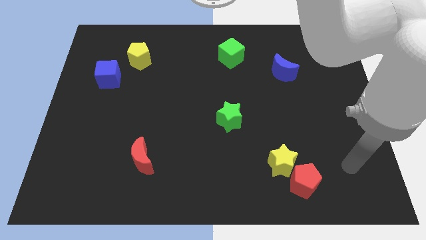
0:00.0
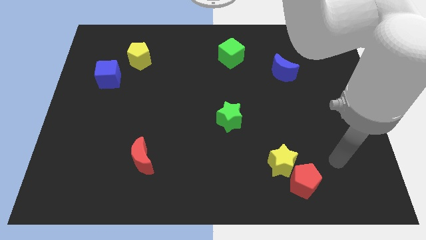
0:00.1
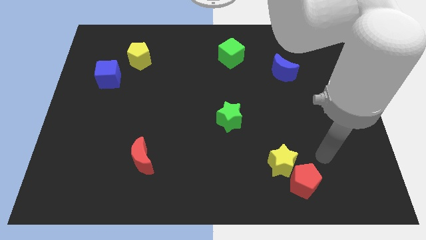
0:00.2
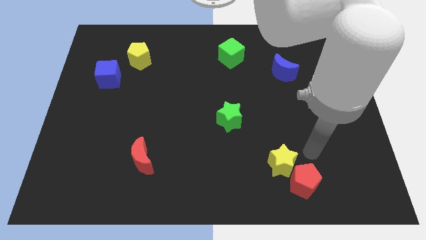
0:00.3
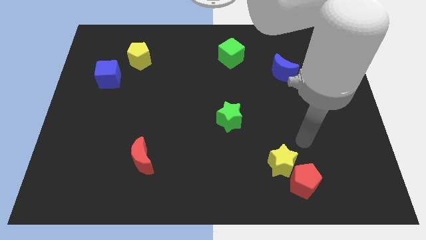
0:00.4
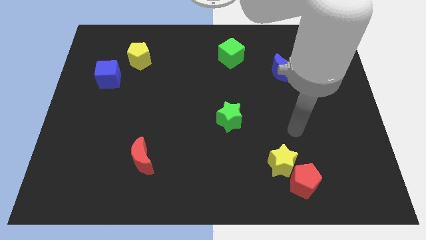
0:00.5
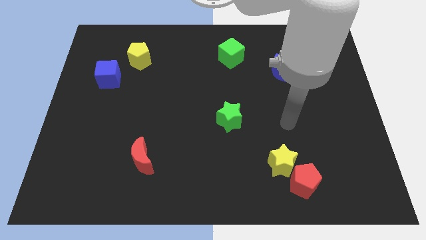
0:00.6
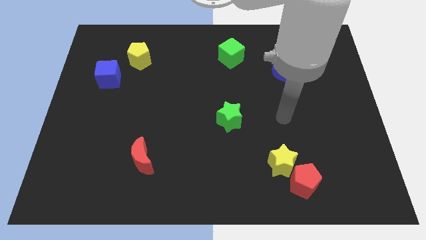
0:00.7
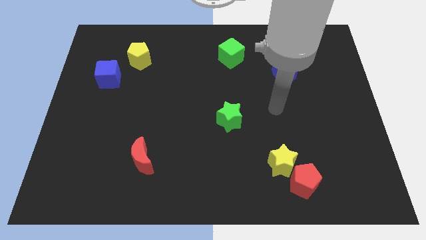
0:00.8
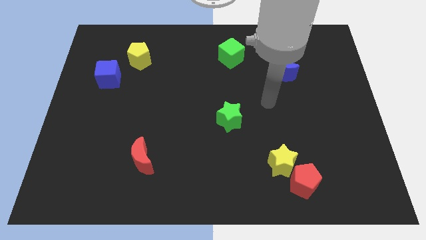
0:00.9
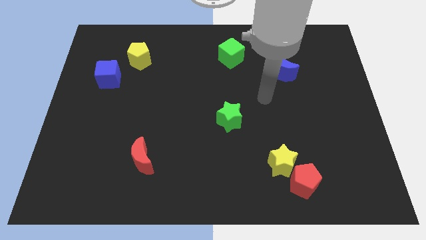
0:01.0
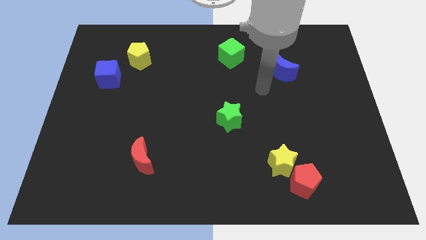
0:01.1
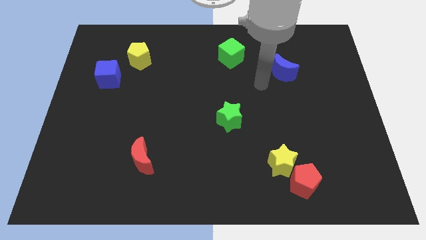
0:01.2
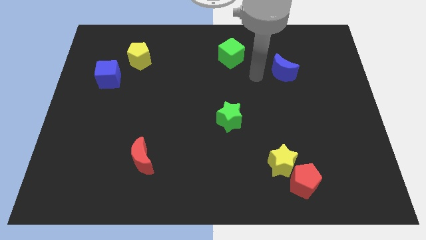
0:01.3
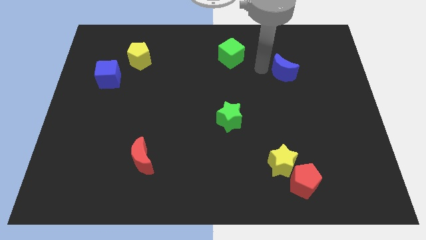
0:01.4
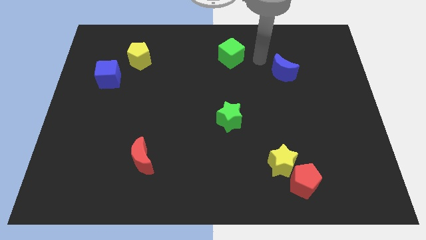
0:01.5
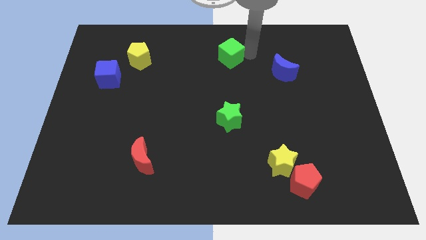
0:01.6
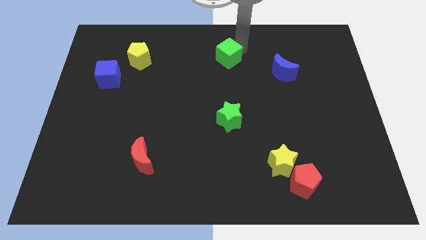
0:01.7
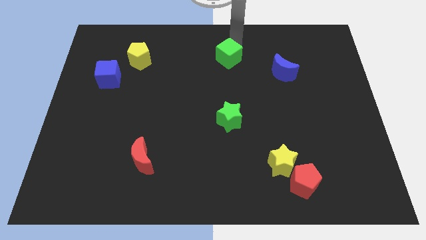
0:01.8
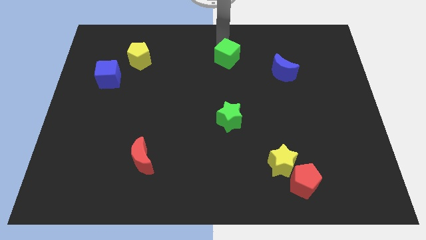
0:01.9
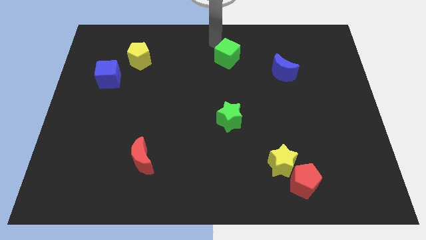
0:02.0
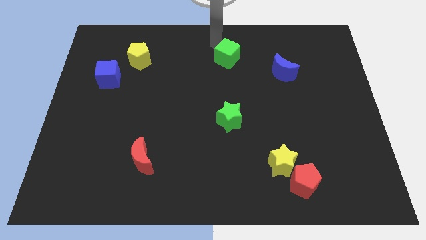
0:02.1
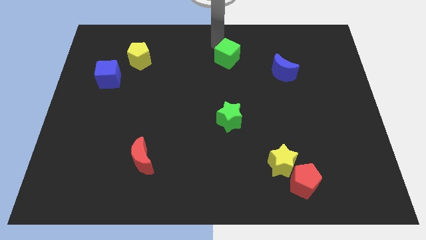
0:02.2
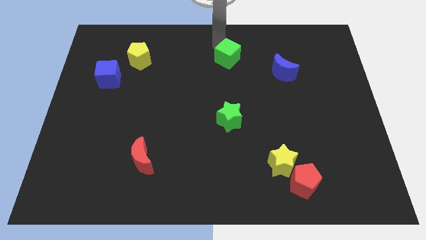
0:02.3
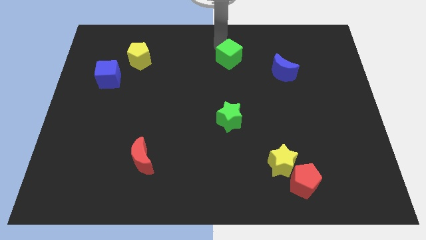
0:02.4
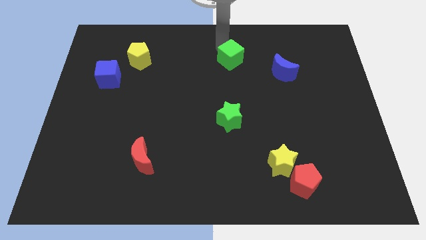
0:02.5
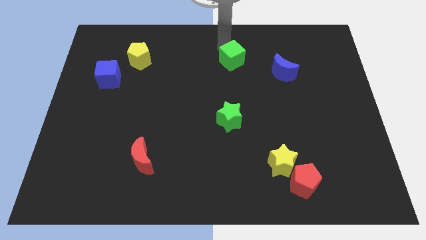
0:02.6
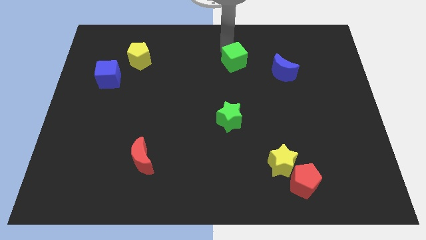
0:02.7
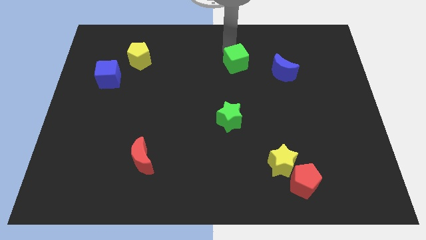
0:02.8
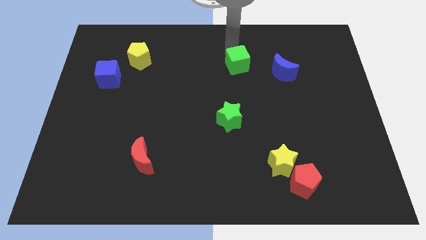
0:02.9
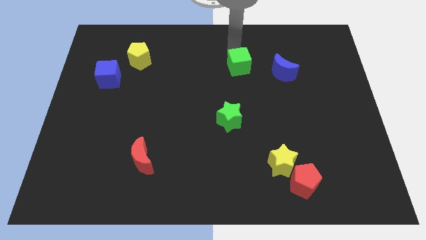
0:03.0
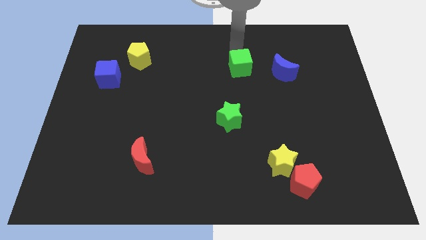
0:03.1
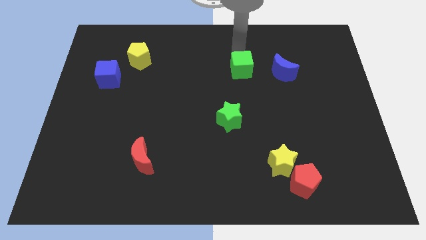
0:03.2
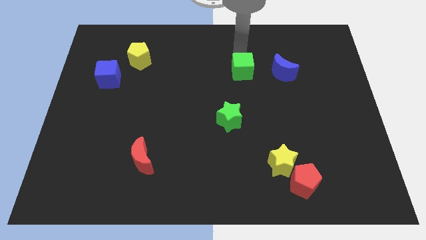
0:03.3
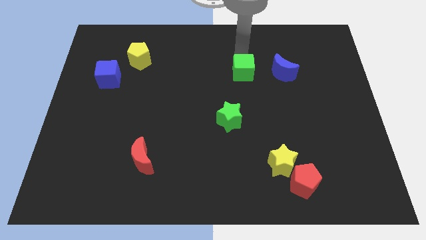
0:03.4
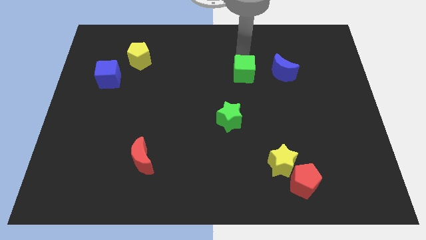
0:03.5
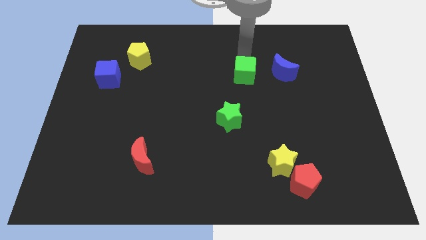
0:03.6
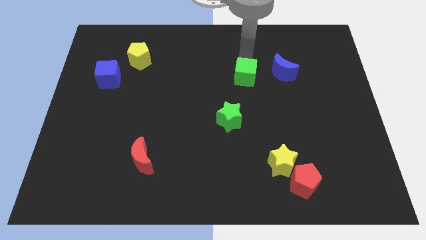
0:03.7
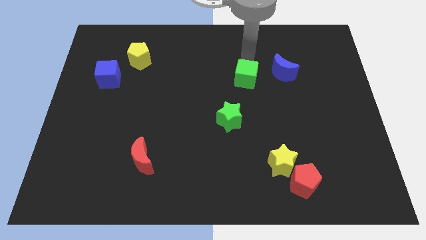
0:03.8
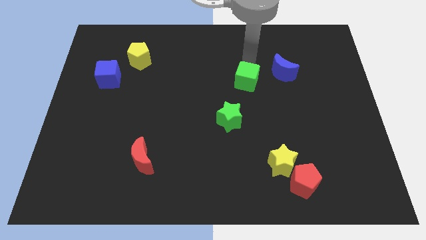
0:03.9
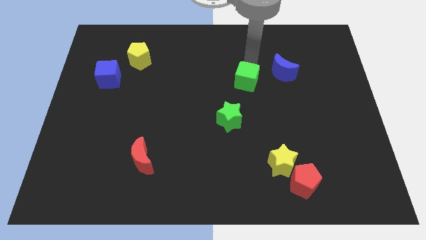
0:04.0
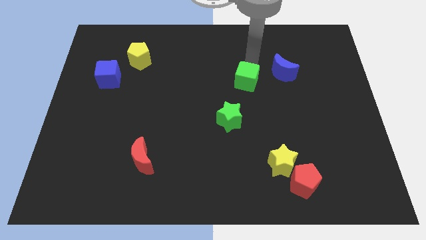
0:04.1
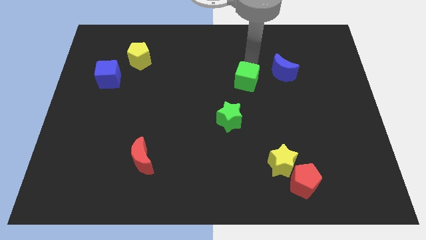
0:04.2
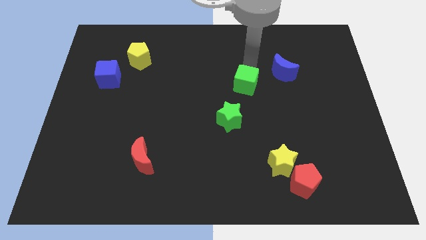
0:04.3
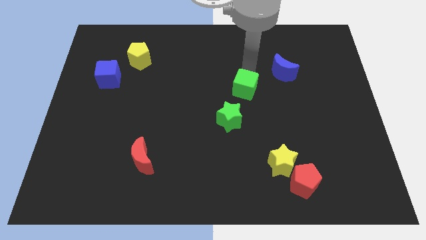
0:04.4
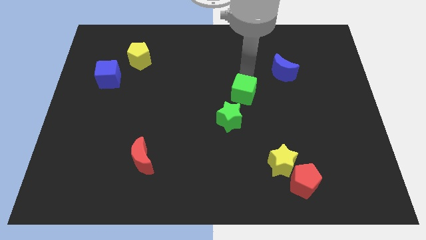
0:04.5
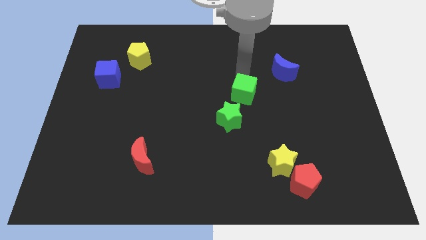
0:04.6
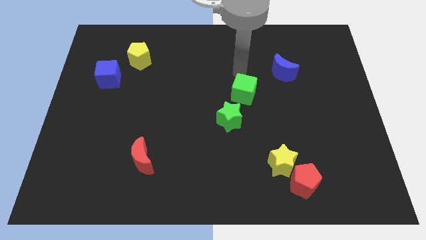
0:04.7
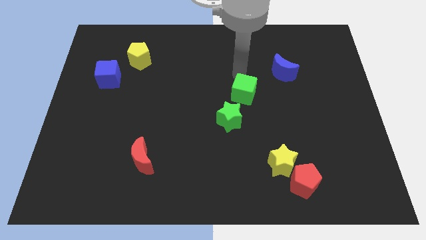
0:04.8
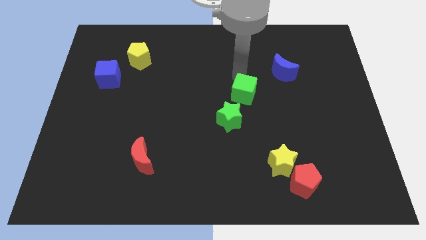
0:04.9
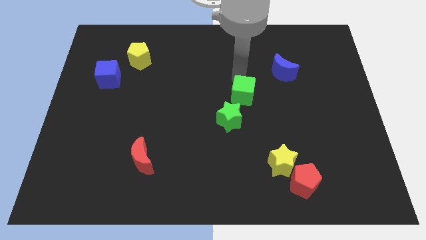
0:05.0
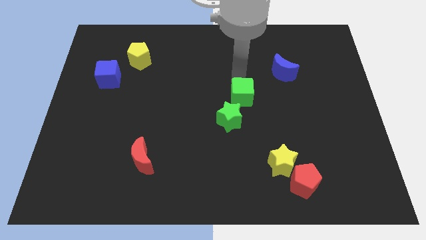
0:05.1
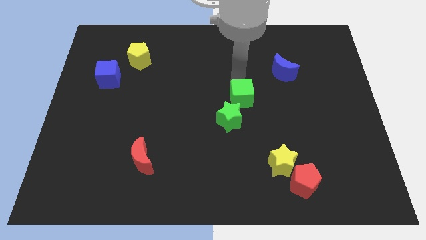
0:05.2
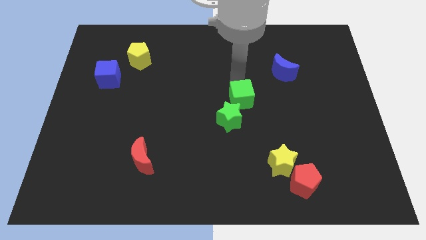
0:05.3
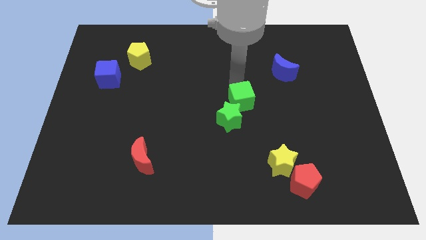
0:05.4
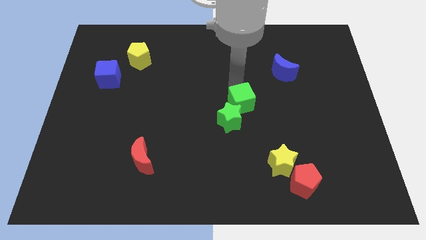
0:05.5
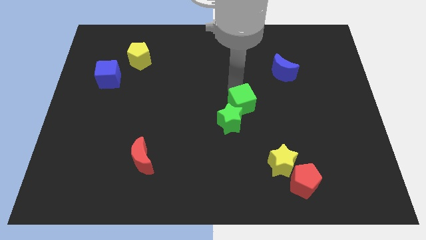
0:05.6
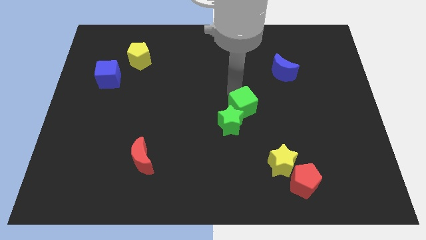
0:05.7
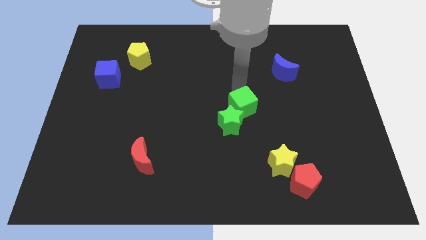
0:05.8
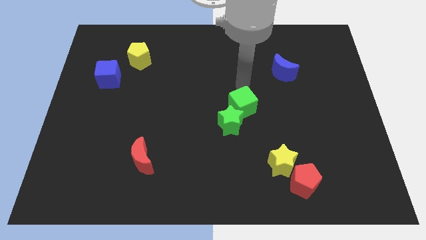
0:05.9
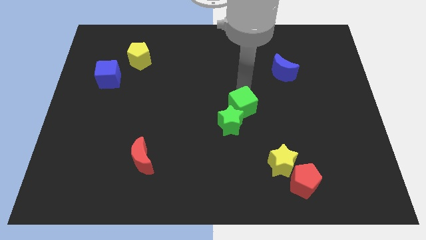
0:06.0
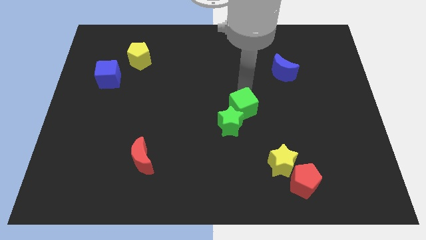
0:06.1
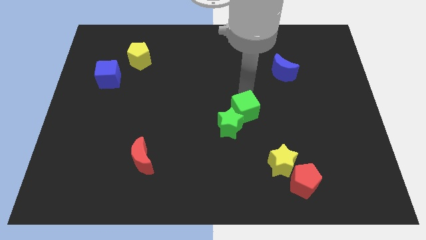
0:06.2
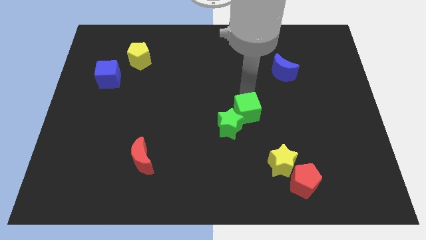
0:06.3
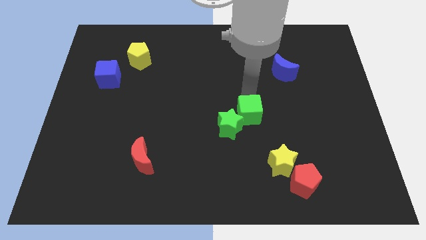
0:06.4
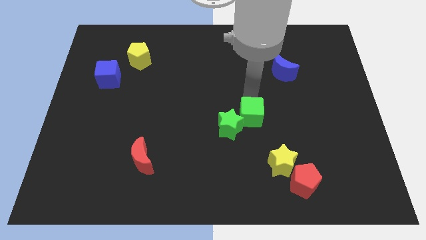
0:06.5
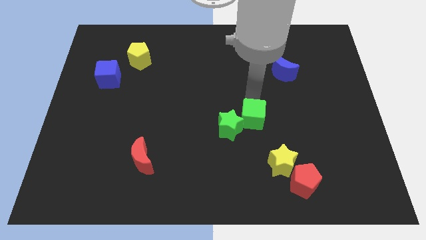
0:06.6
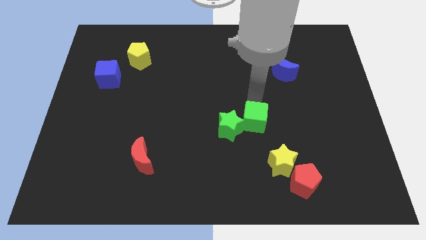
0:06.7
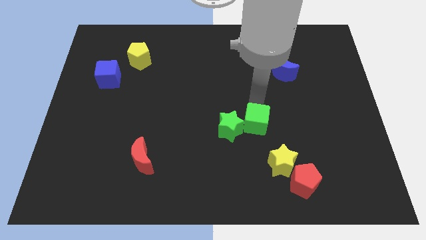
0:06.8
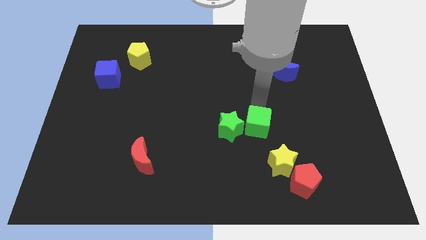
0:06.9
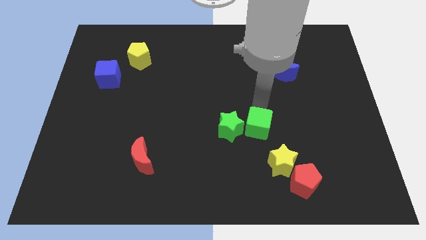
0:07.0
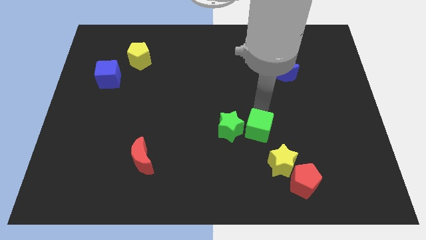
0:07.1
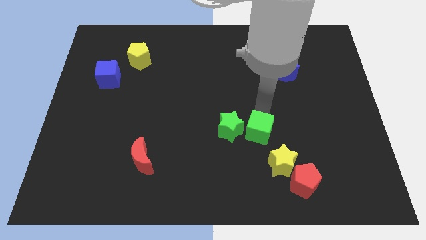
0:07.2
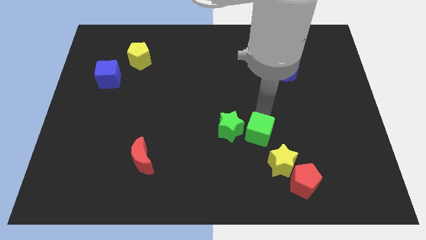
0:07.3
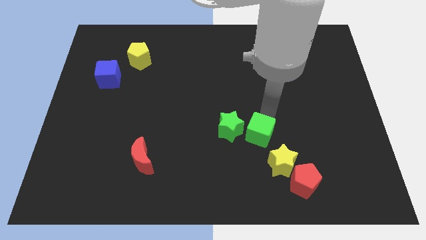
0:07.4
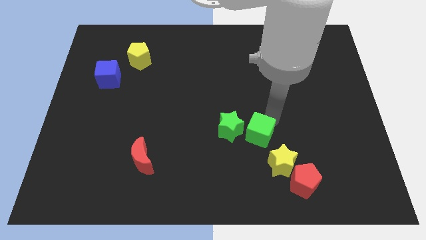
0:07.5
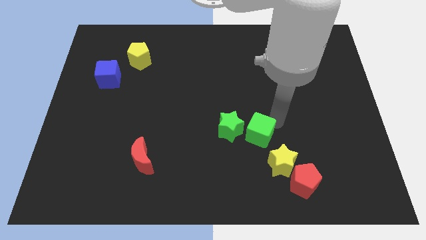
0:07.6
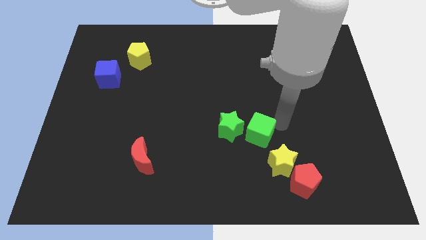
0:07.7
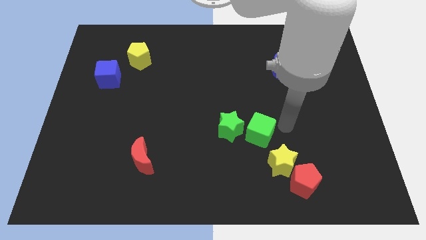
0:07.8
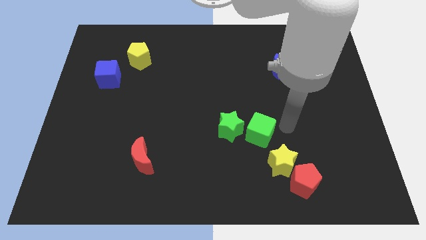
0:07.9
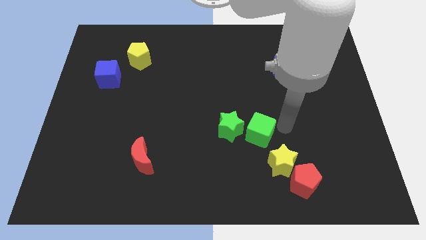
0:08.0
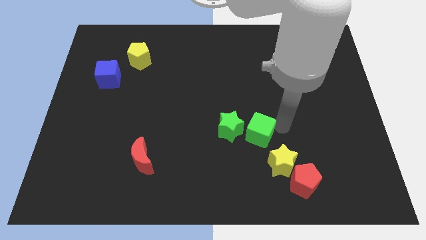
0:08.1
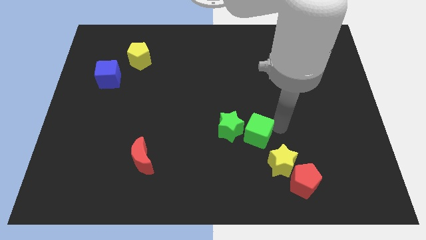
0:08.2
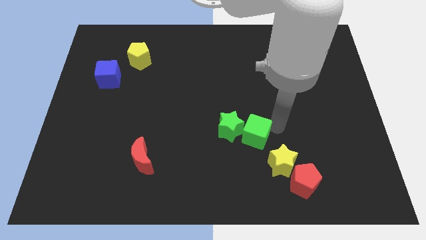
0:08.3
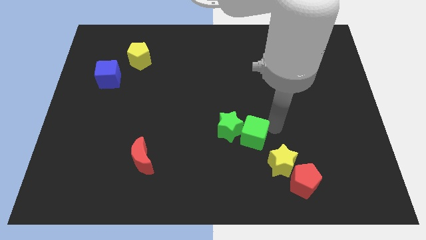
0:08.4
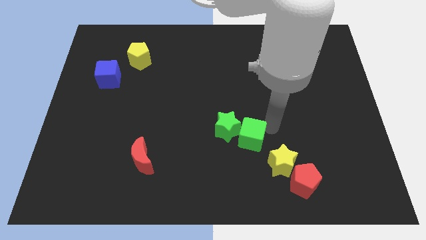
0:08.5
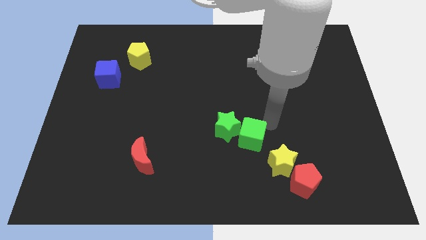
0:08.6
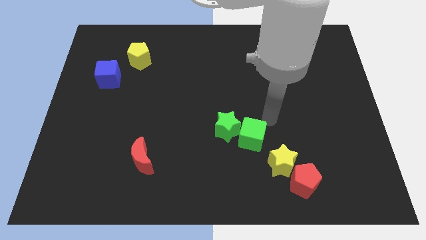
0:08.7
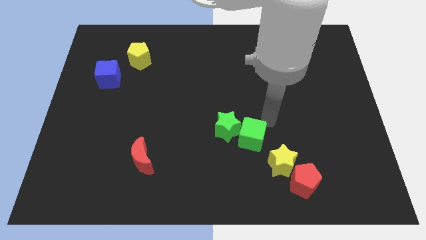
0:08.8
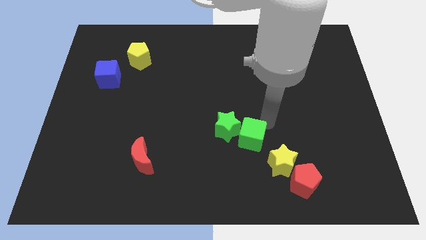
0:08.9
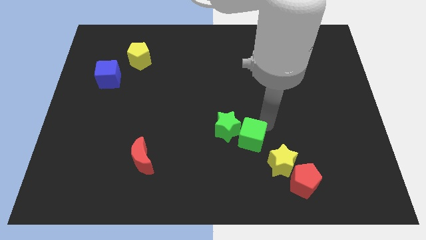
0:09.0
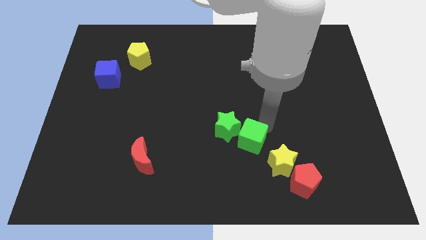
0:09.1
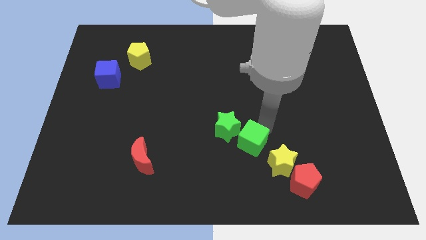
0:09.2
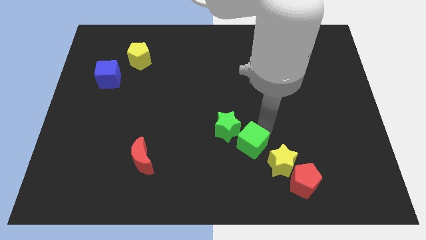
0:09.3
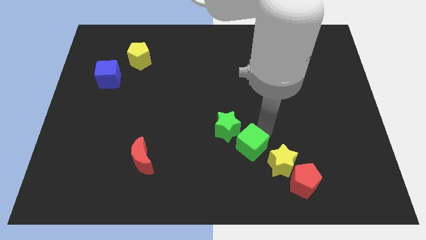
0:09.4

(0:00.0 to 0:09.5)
push the green cube just left of the yellow star
